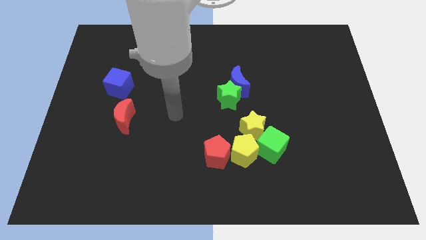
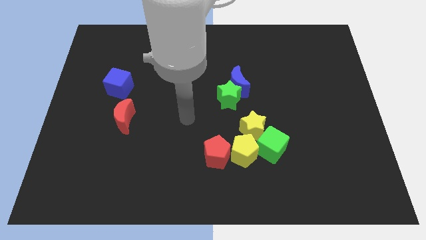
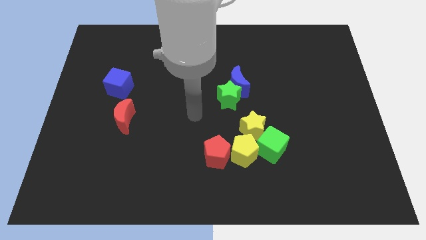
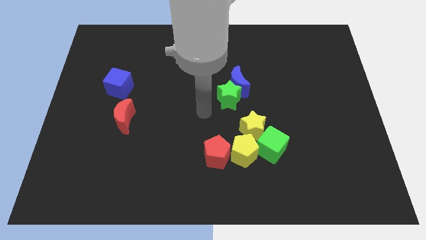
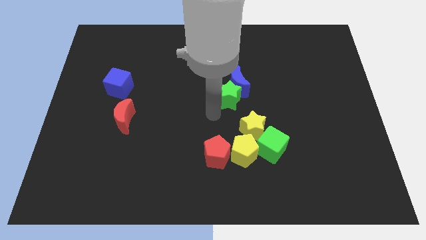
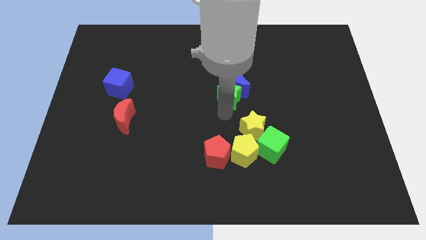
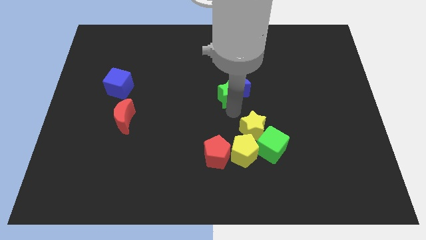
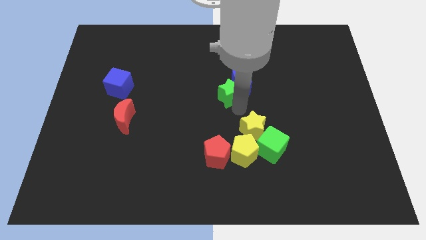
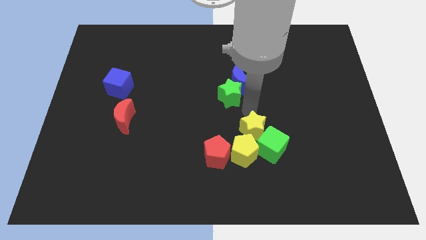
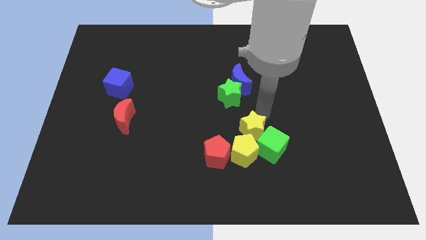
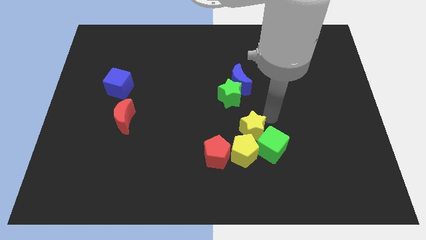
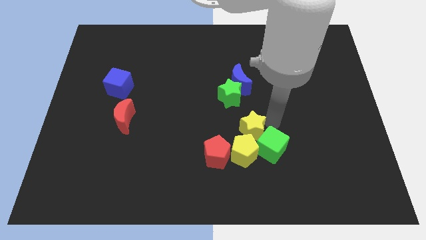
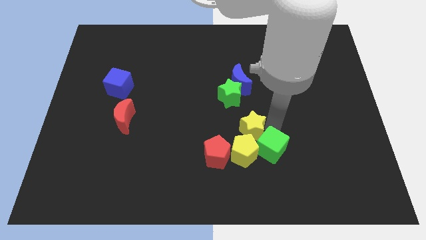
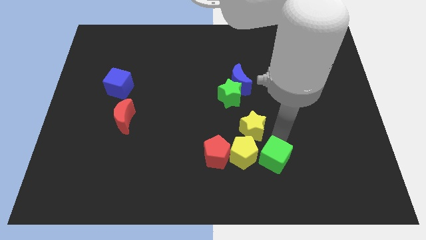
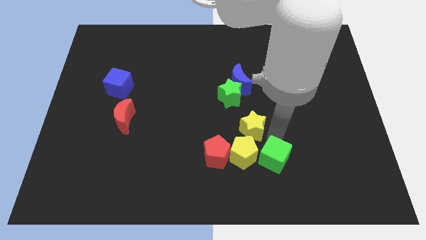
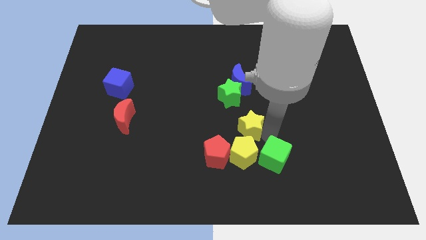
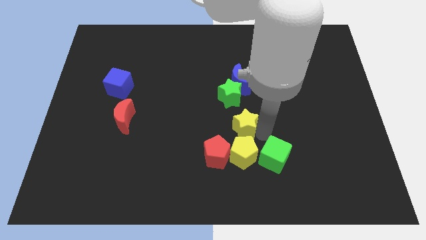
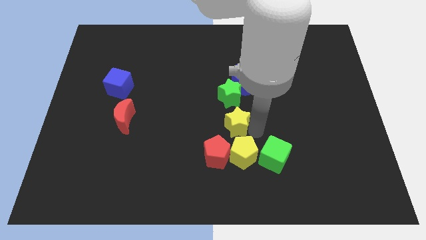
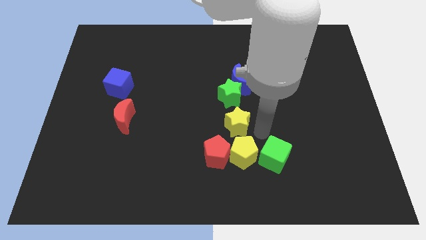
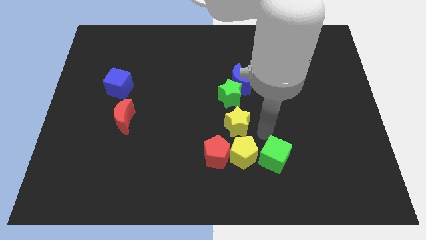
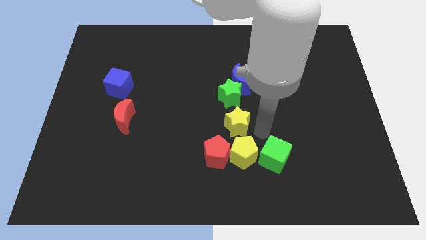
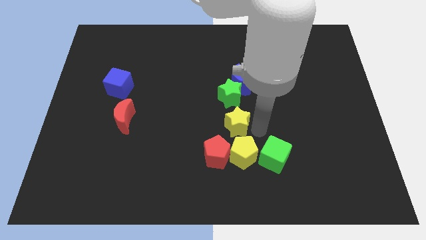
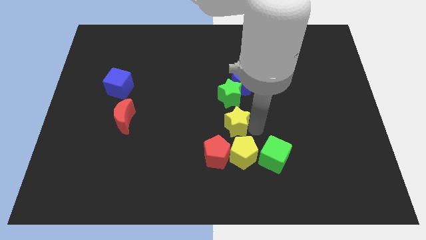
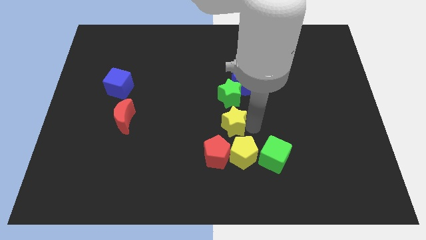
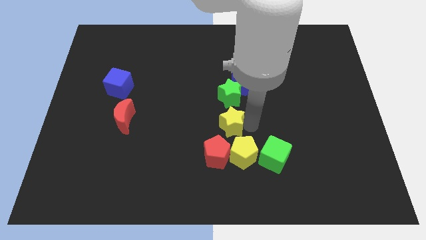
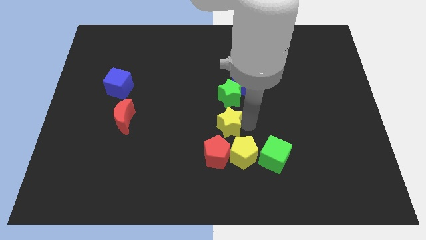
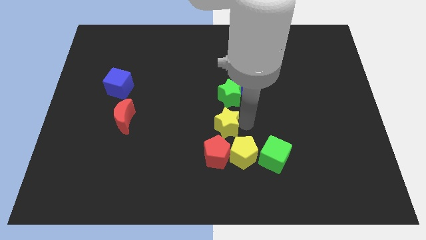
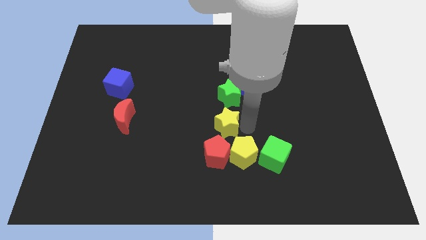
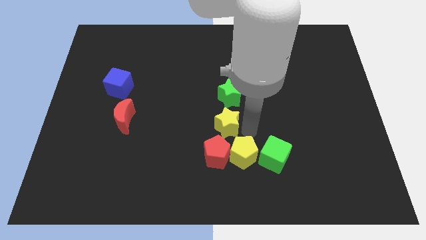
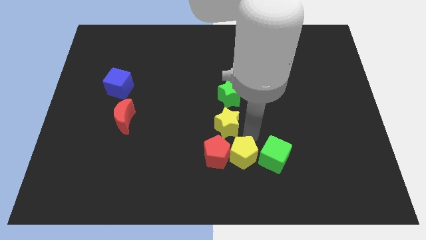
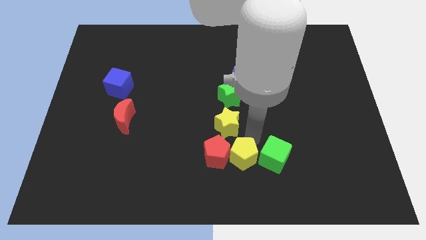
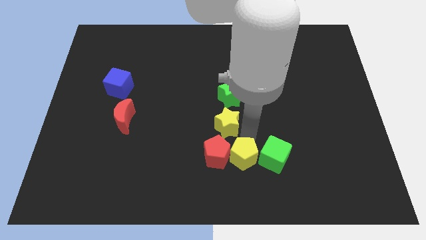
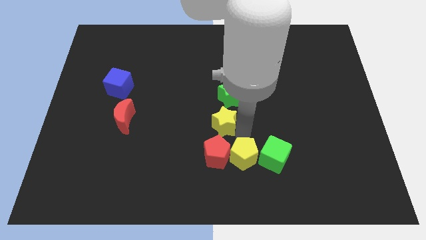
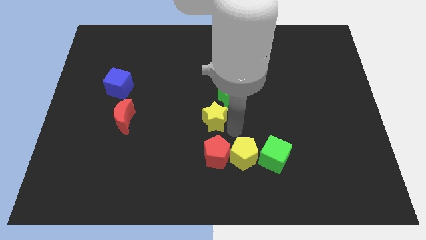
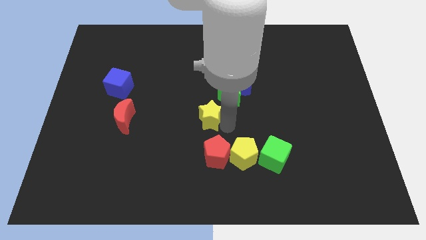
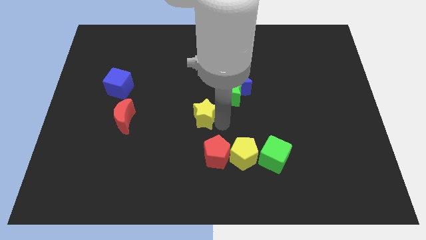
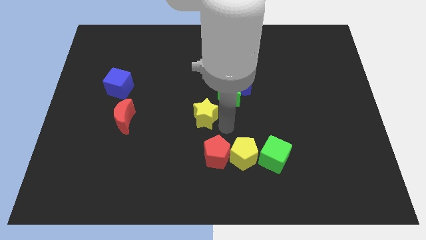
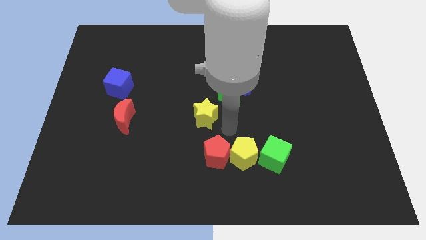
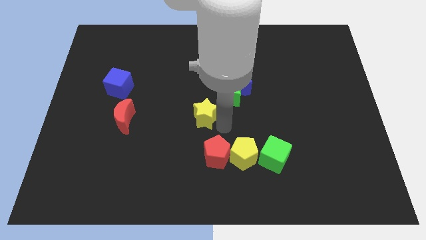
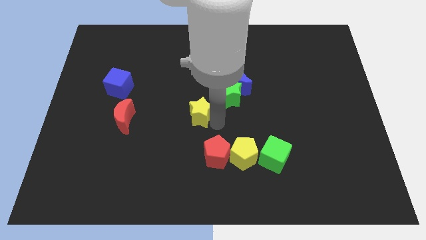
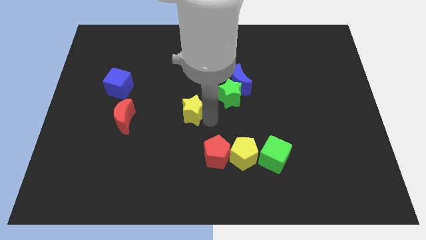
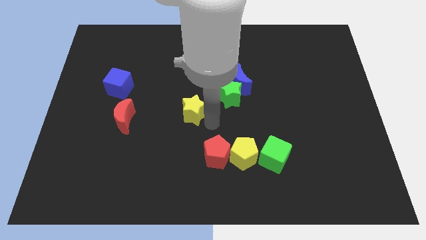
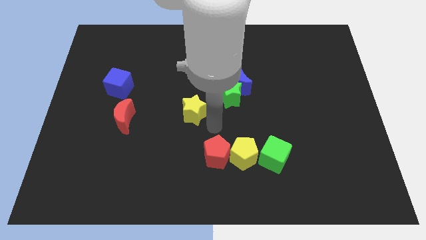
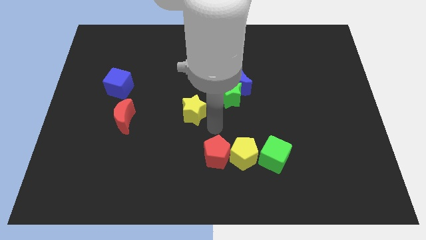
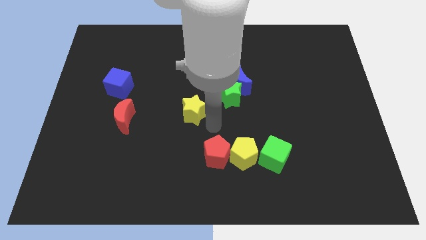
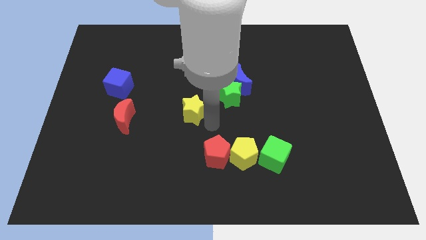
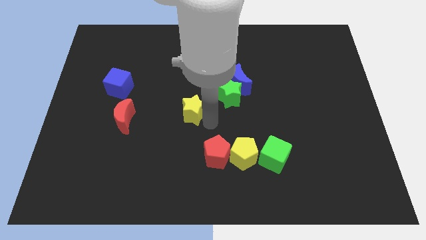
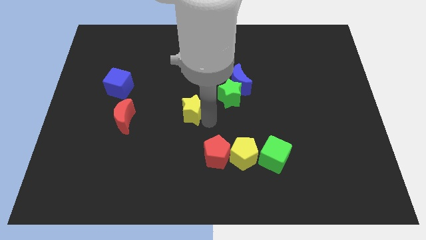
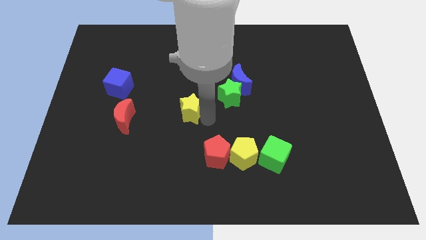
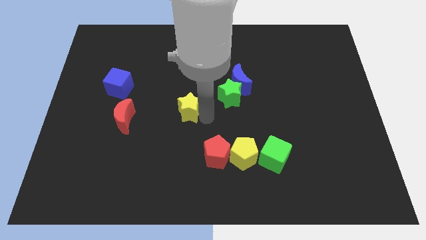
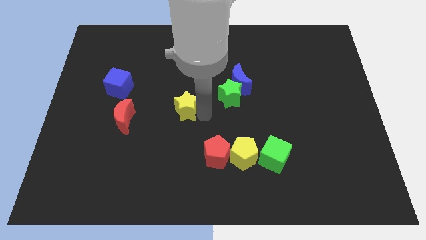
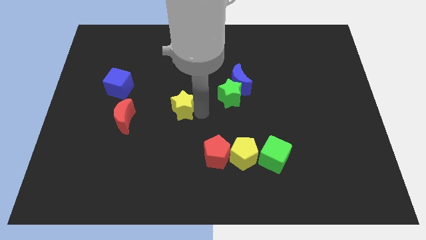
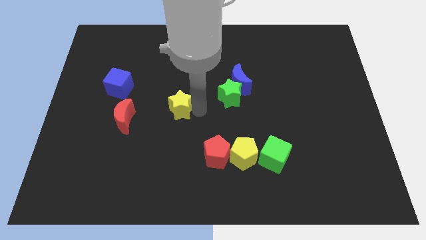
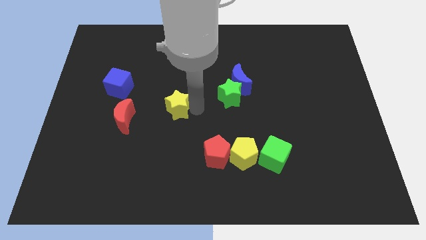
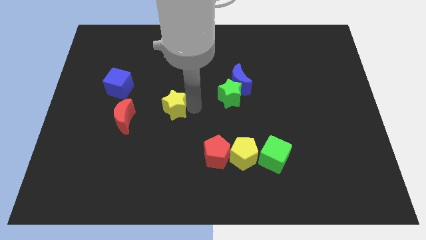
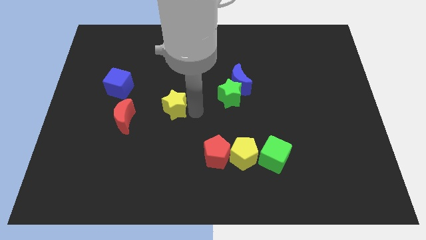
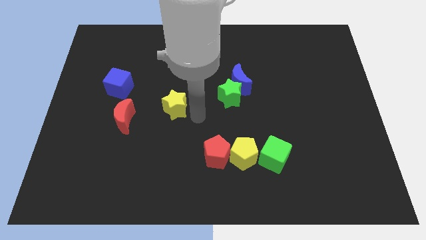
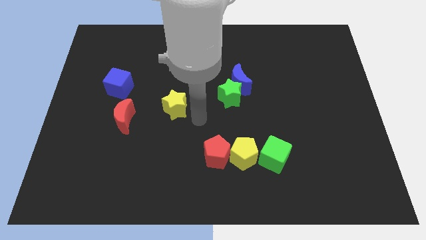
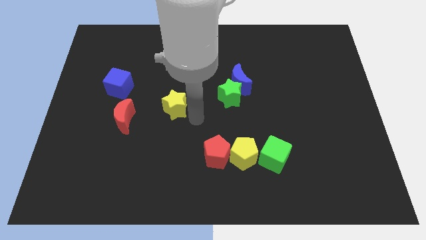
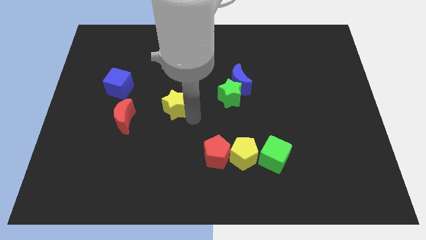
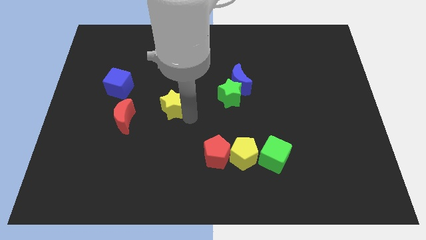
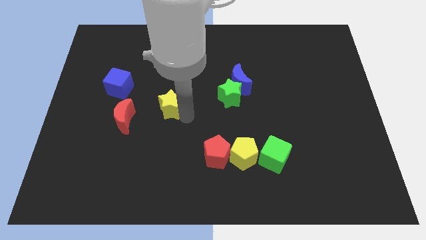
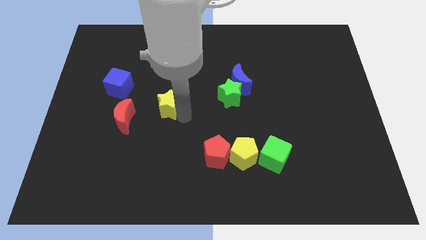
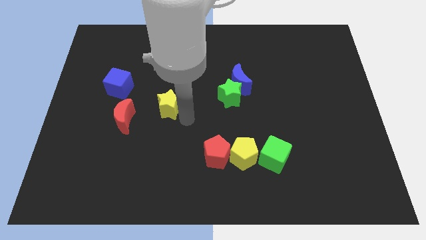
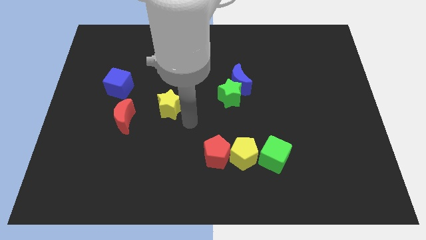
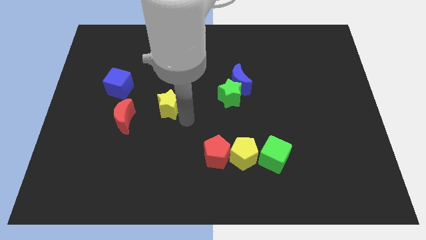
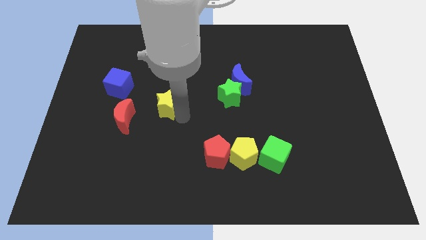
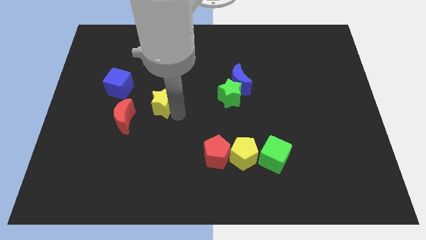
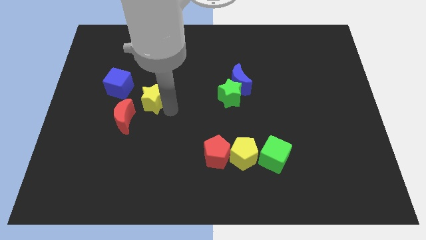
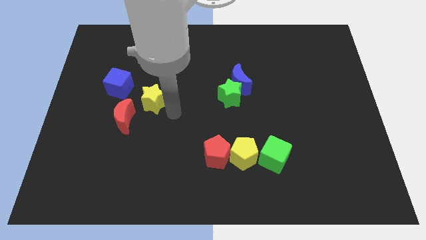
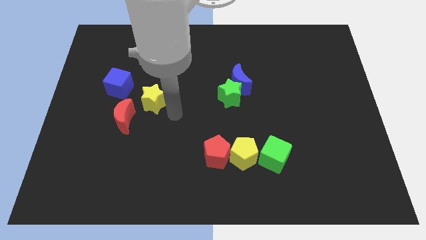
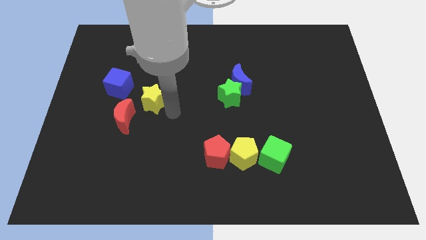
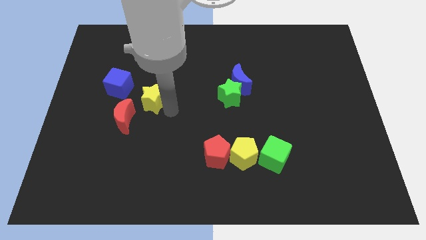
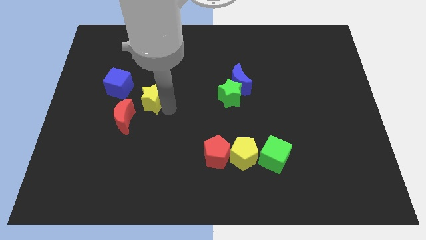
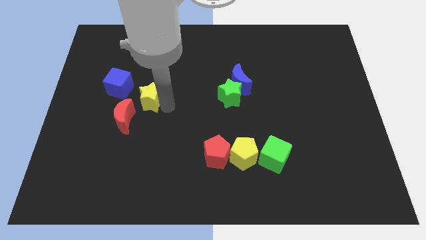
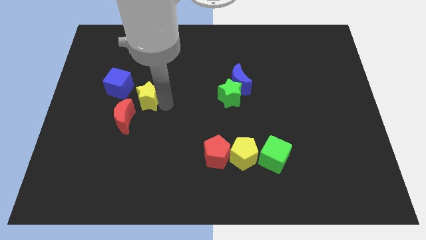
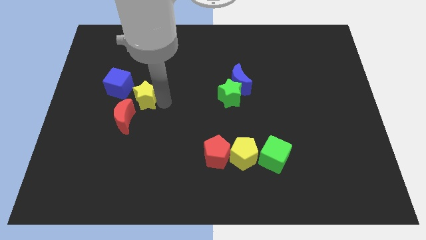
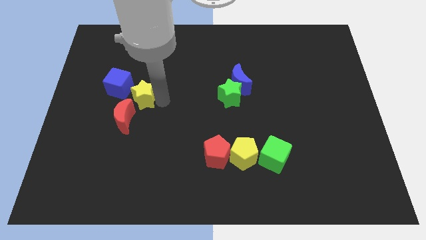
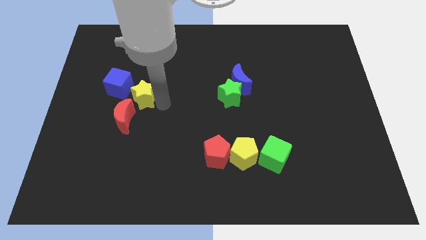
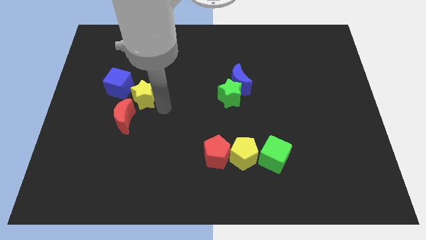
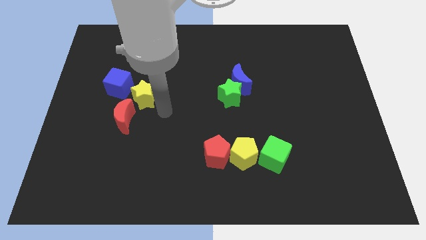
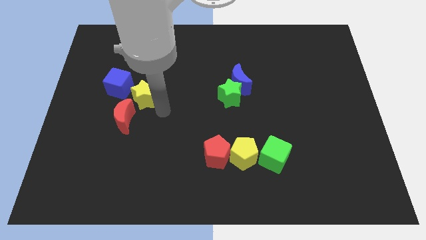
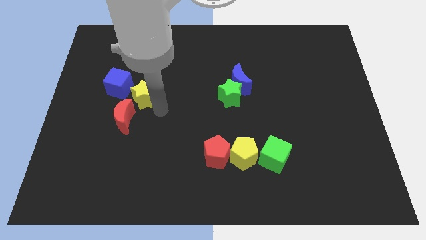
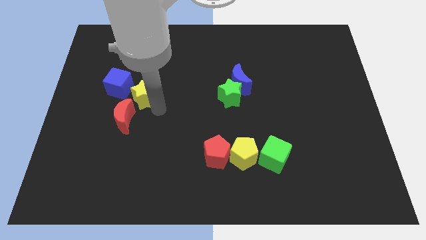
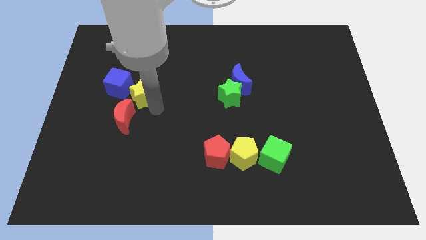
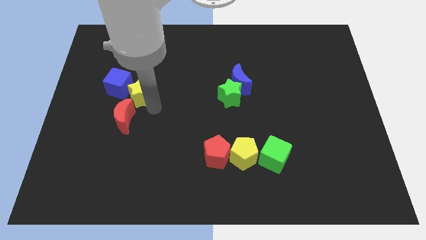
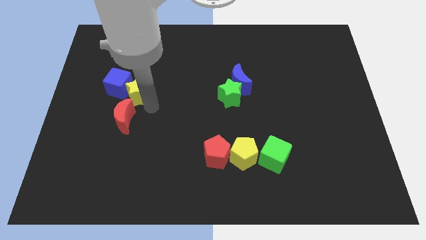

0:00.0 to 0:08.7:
slide the yellow star next to the blue cube
